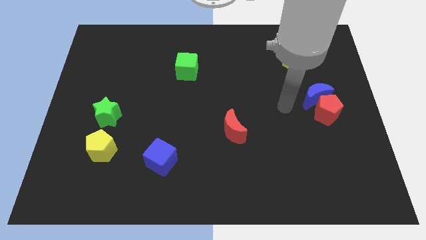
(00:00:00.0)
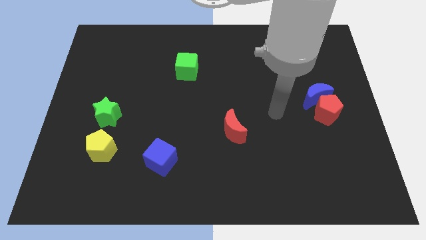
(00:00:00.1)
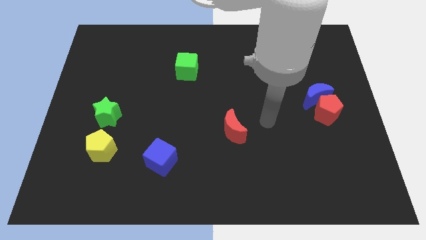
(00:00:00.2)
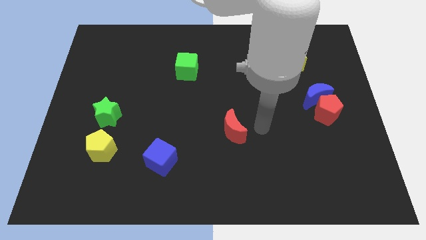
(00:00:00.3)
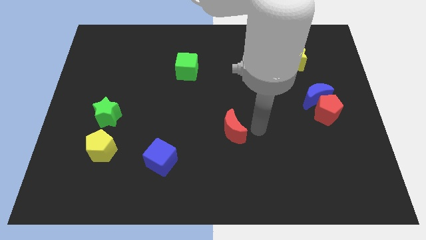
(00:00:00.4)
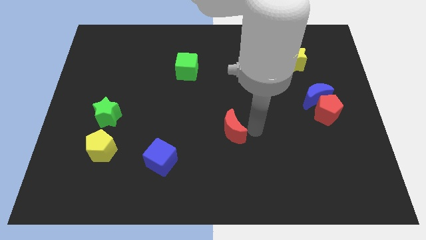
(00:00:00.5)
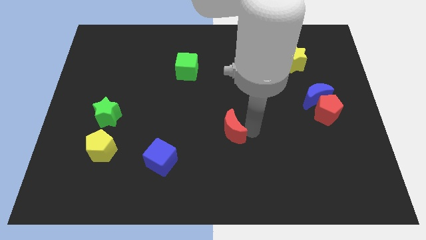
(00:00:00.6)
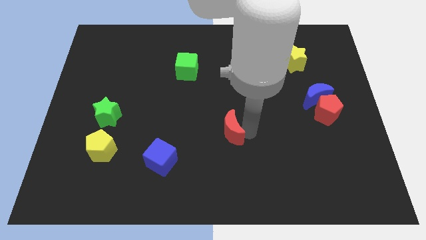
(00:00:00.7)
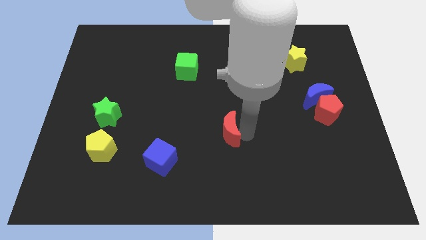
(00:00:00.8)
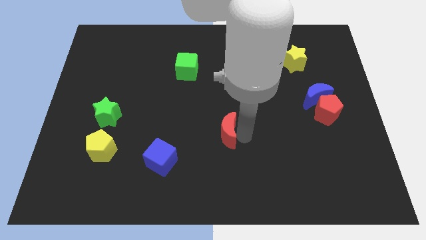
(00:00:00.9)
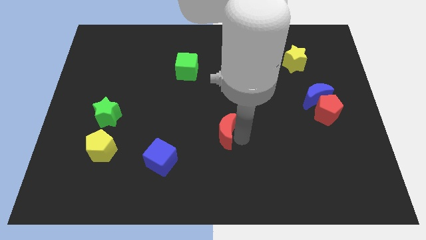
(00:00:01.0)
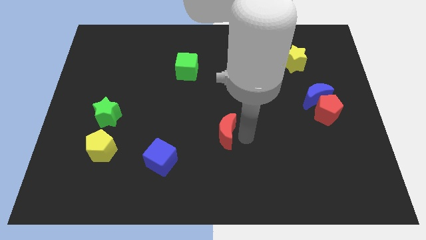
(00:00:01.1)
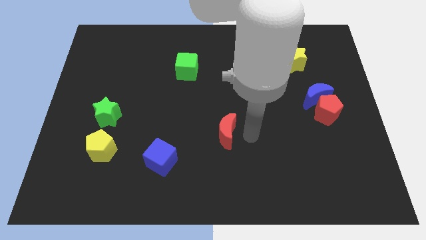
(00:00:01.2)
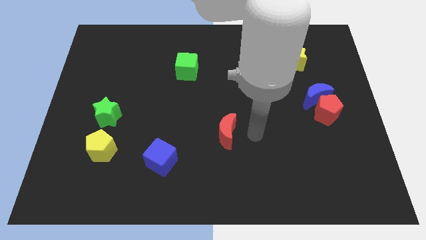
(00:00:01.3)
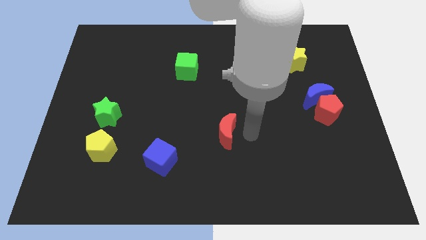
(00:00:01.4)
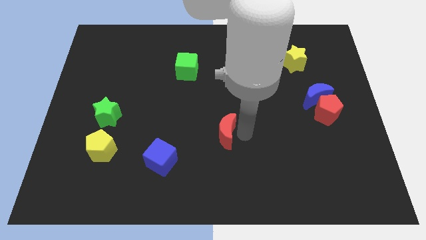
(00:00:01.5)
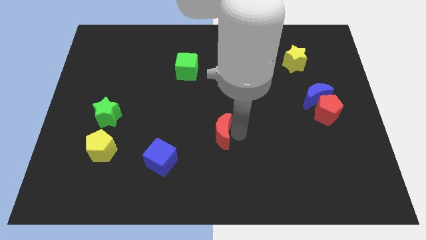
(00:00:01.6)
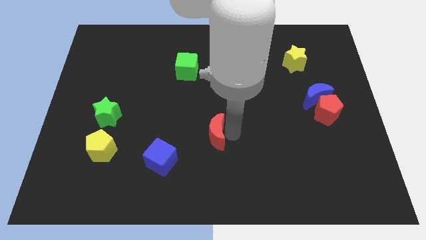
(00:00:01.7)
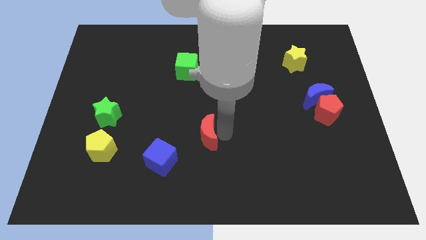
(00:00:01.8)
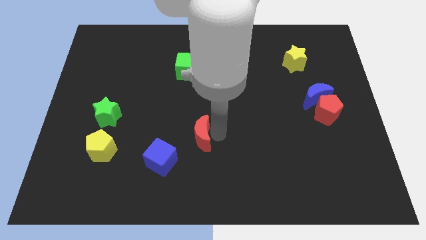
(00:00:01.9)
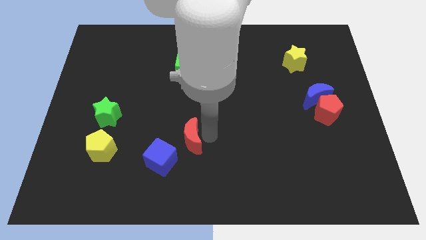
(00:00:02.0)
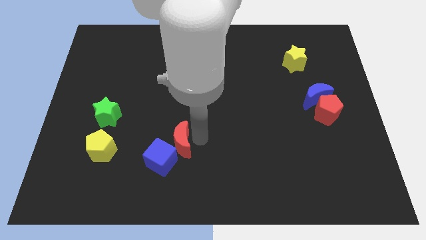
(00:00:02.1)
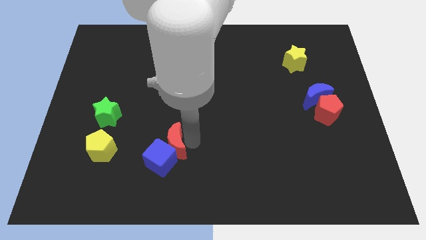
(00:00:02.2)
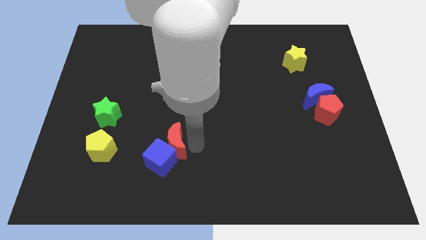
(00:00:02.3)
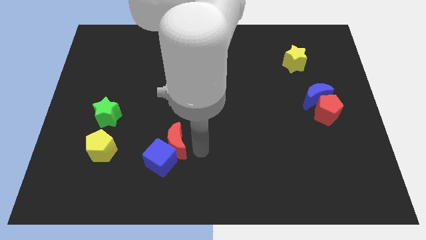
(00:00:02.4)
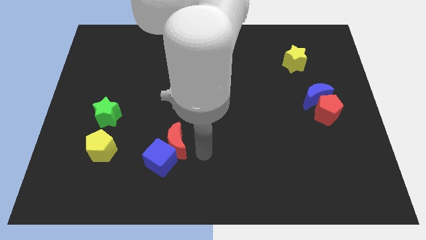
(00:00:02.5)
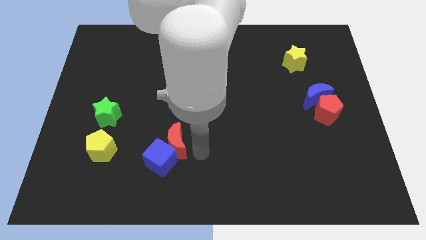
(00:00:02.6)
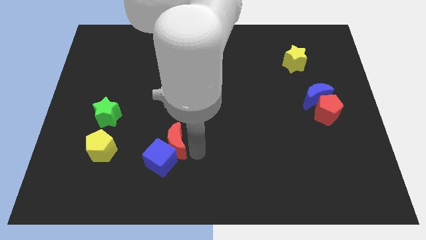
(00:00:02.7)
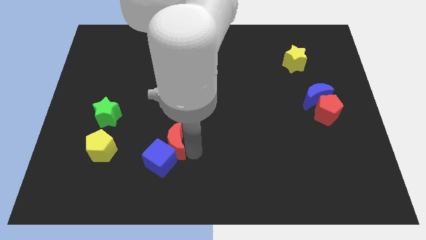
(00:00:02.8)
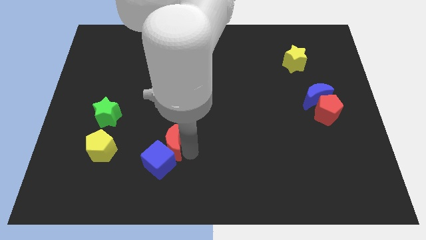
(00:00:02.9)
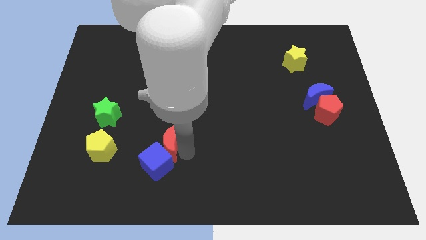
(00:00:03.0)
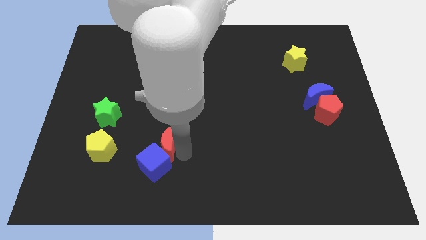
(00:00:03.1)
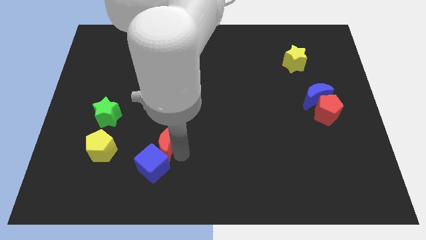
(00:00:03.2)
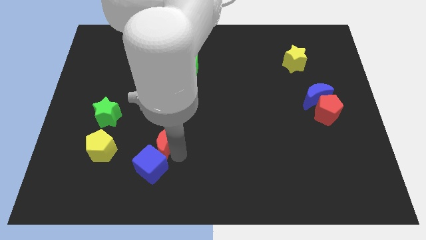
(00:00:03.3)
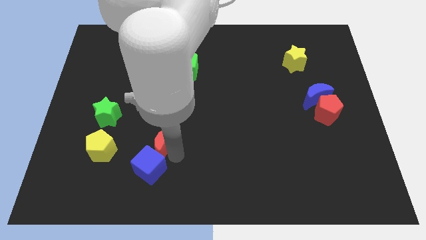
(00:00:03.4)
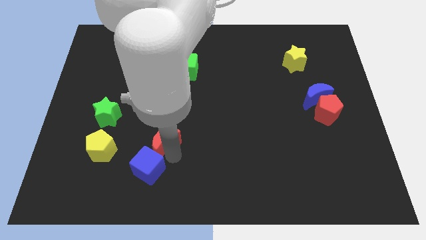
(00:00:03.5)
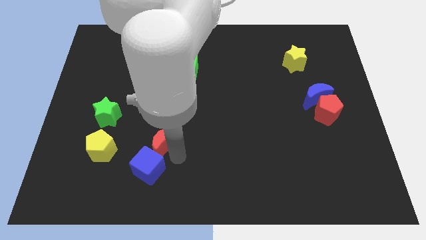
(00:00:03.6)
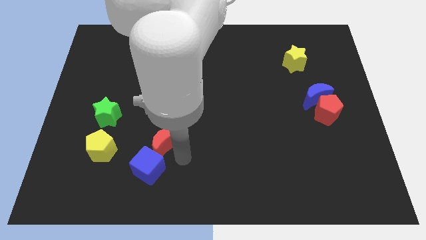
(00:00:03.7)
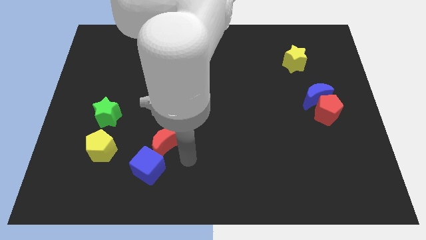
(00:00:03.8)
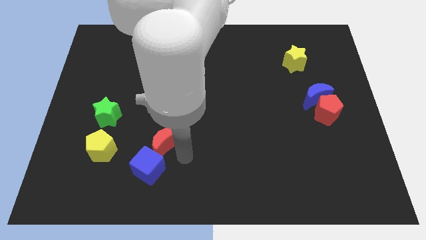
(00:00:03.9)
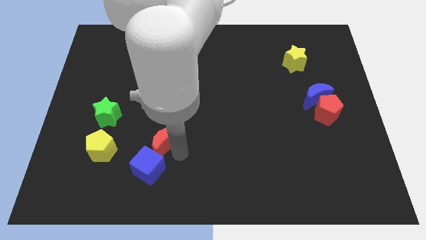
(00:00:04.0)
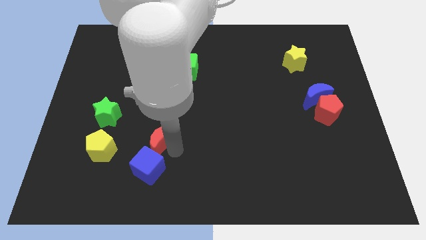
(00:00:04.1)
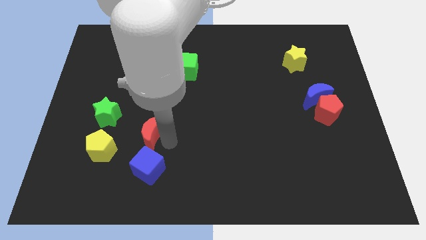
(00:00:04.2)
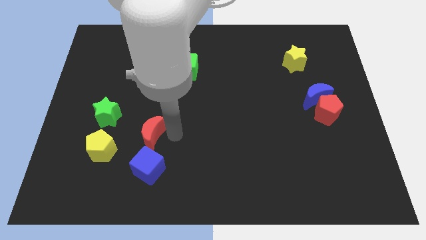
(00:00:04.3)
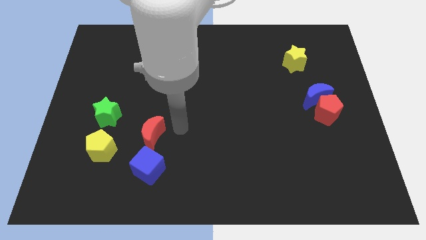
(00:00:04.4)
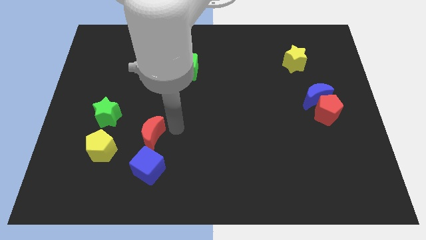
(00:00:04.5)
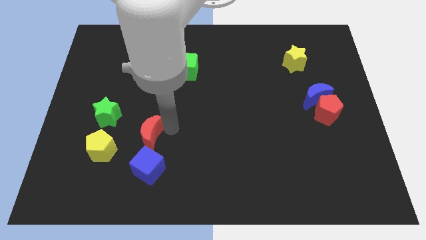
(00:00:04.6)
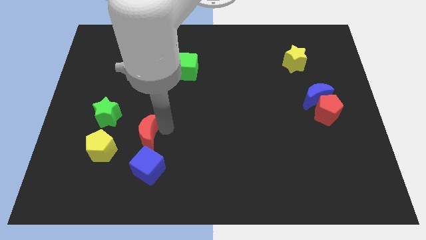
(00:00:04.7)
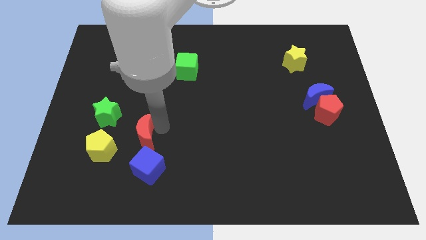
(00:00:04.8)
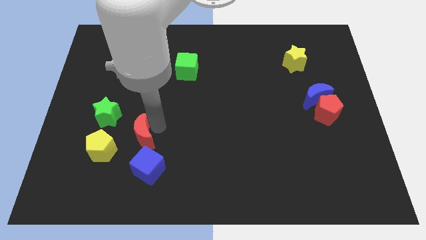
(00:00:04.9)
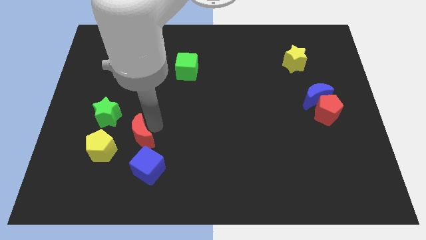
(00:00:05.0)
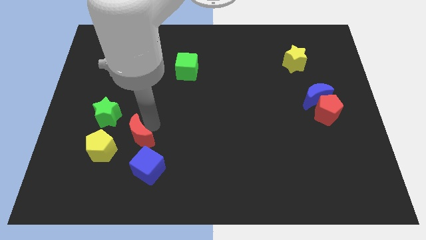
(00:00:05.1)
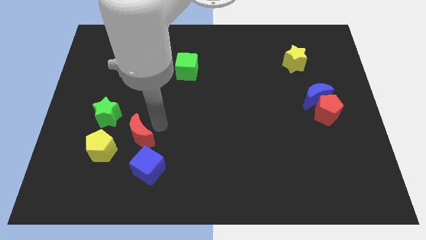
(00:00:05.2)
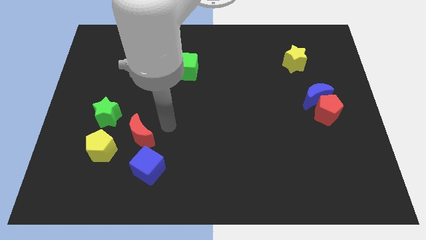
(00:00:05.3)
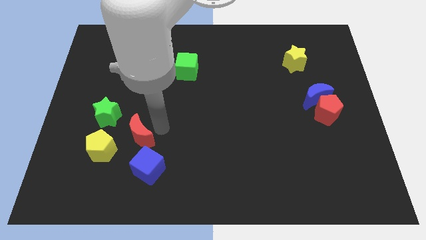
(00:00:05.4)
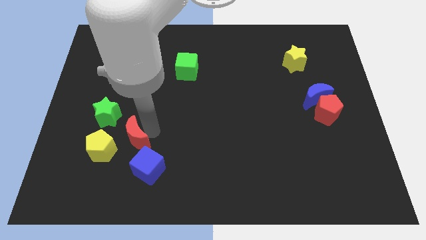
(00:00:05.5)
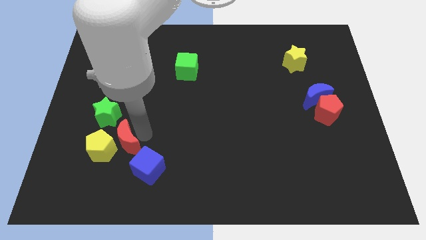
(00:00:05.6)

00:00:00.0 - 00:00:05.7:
move the red moon to the yellow pentagon

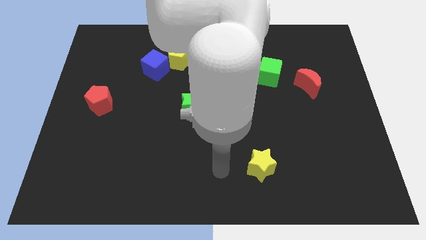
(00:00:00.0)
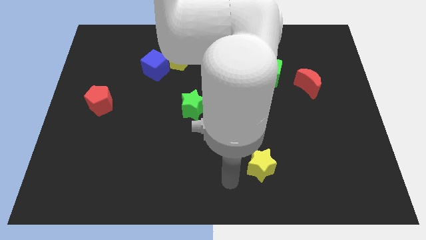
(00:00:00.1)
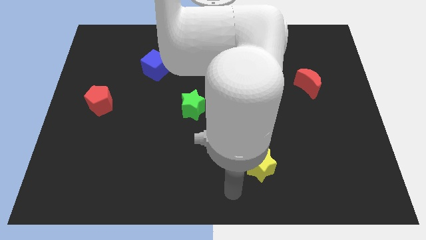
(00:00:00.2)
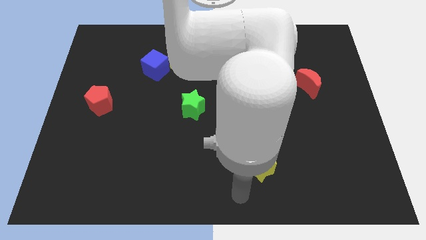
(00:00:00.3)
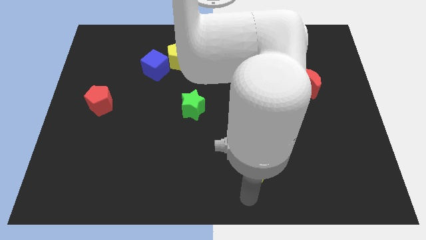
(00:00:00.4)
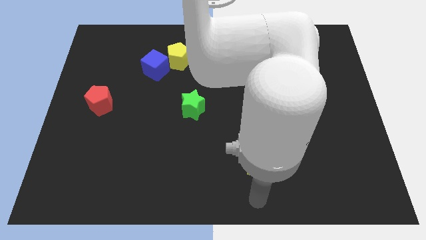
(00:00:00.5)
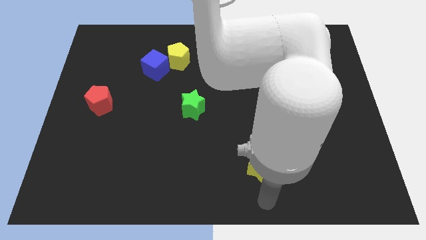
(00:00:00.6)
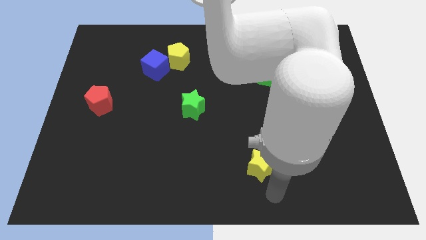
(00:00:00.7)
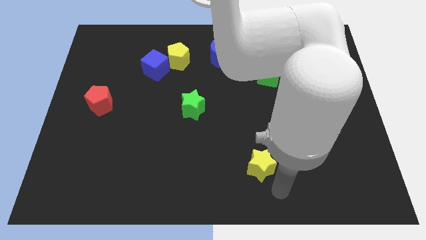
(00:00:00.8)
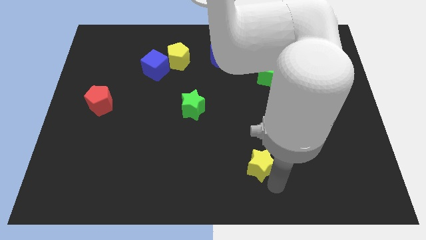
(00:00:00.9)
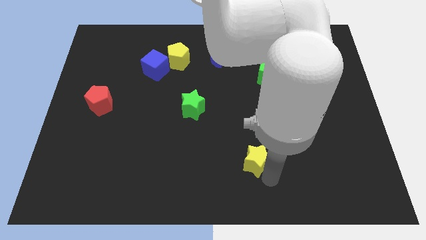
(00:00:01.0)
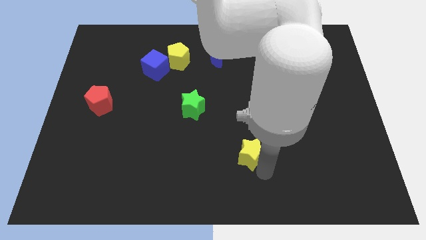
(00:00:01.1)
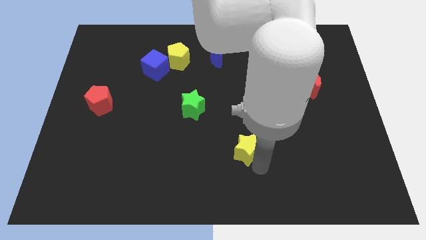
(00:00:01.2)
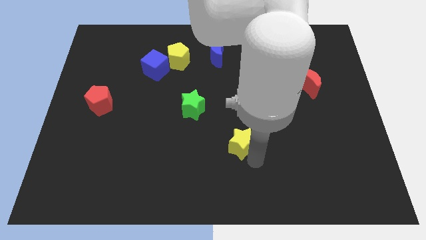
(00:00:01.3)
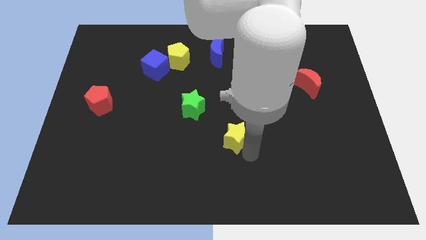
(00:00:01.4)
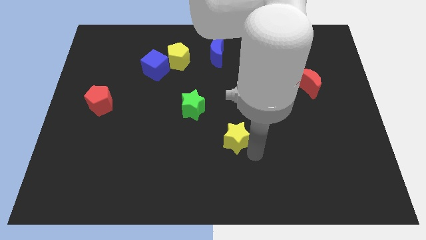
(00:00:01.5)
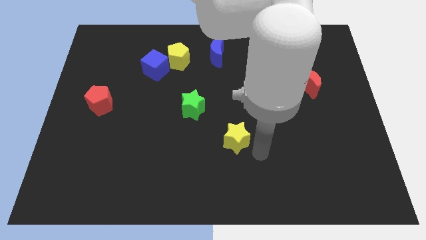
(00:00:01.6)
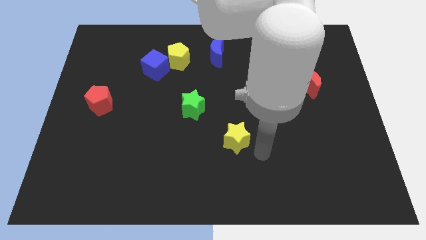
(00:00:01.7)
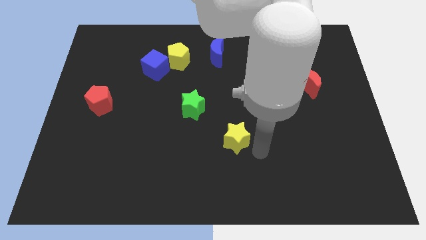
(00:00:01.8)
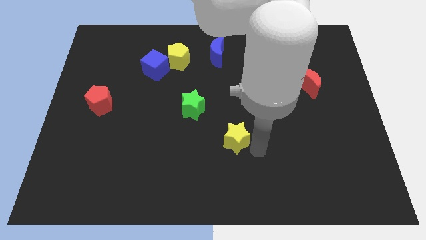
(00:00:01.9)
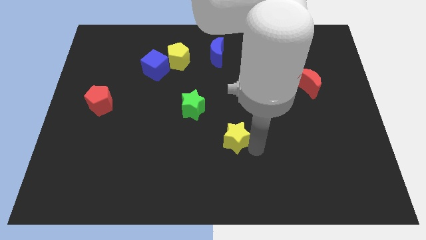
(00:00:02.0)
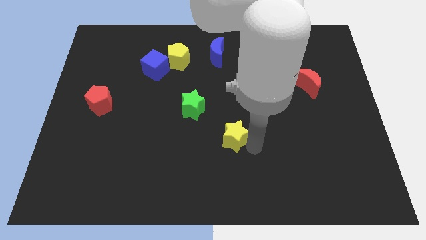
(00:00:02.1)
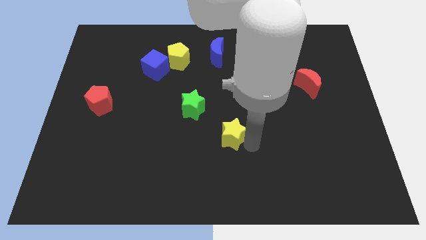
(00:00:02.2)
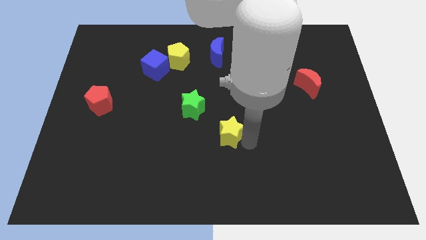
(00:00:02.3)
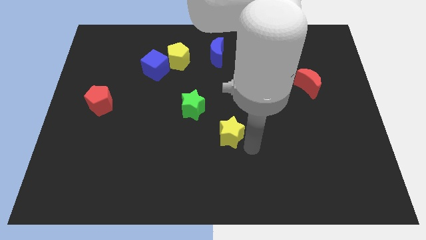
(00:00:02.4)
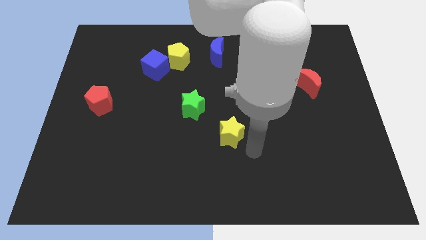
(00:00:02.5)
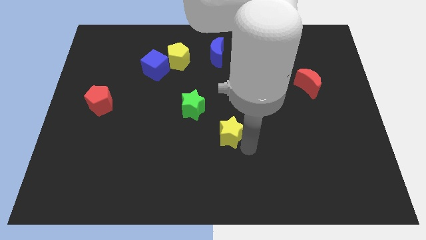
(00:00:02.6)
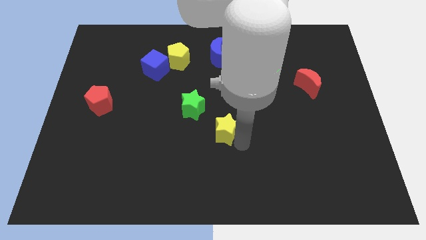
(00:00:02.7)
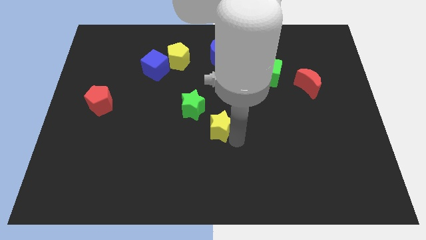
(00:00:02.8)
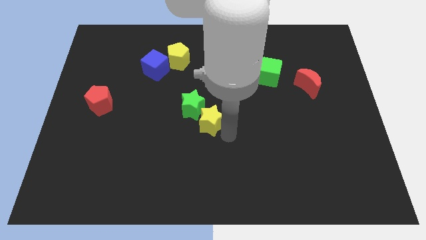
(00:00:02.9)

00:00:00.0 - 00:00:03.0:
push the yellow star close to the green star
